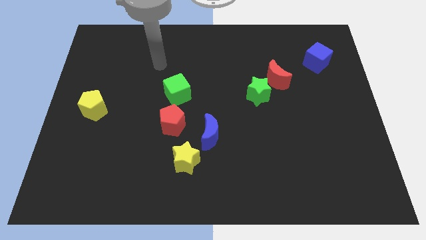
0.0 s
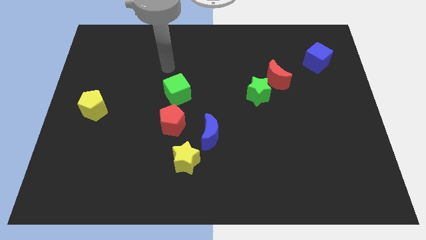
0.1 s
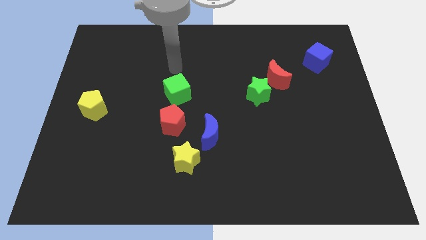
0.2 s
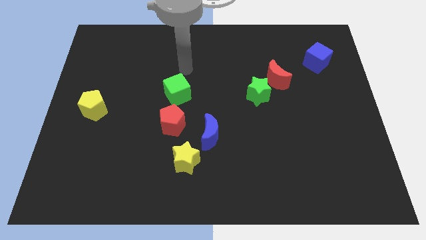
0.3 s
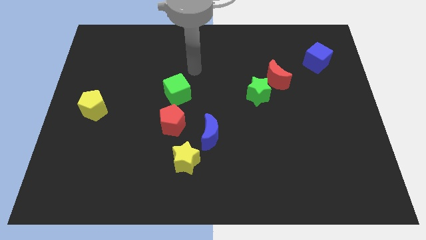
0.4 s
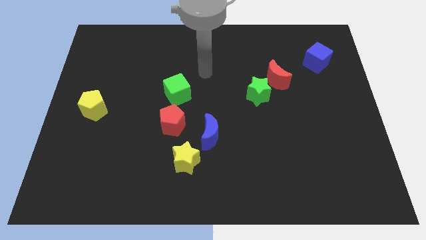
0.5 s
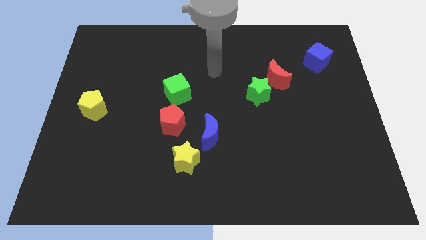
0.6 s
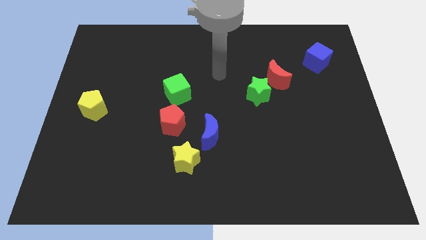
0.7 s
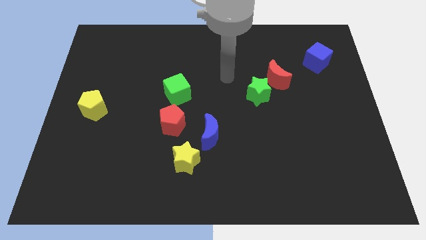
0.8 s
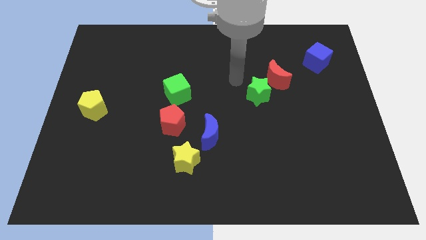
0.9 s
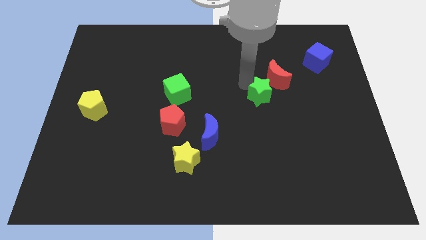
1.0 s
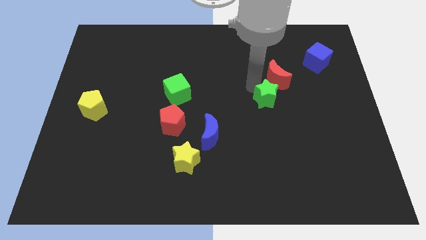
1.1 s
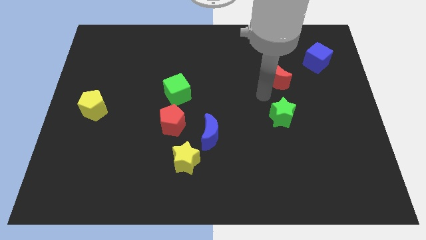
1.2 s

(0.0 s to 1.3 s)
separate the red moon from the green star

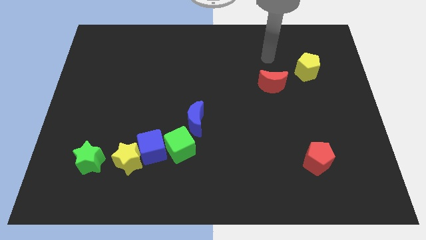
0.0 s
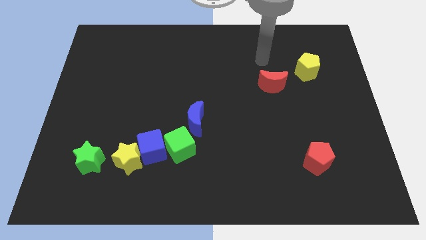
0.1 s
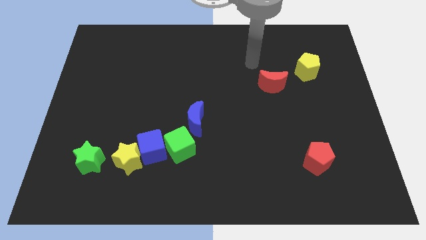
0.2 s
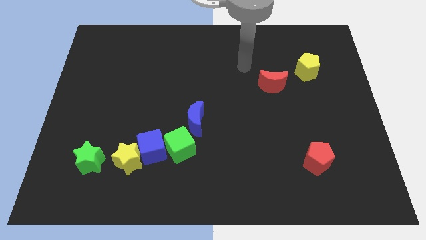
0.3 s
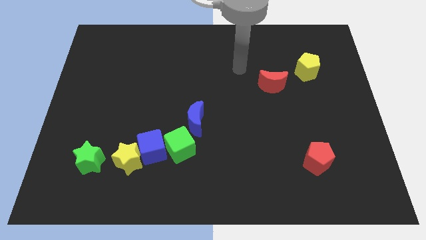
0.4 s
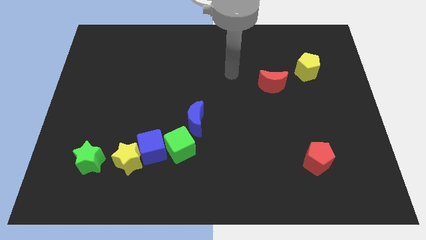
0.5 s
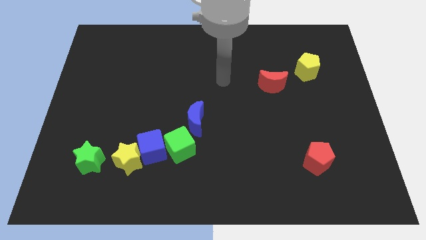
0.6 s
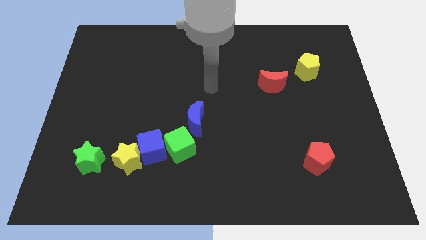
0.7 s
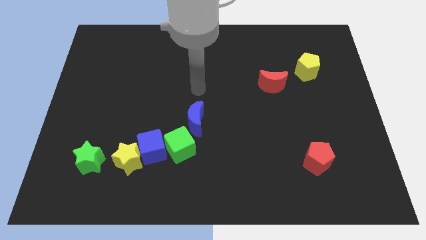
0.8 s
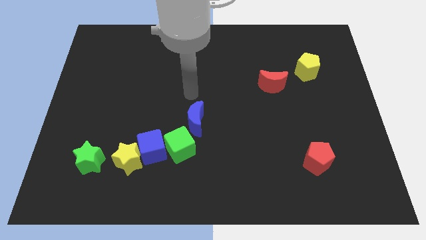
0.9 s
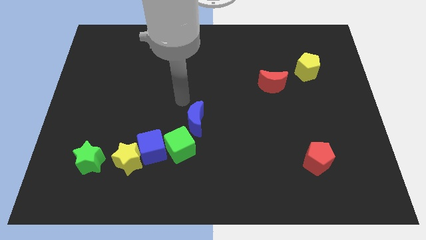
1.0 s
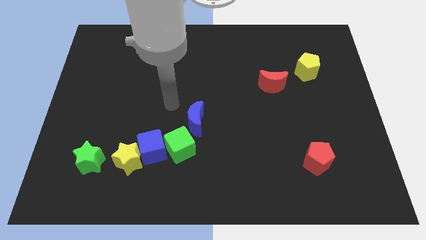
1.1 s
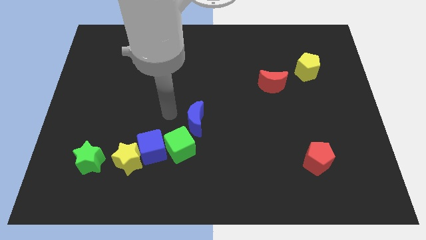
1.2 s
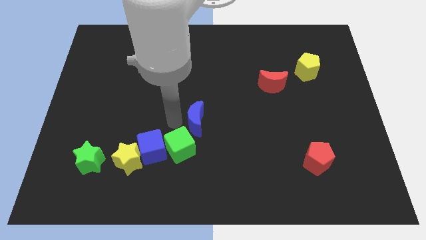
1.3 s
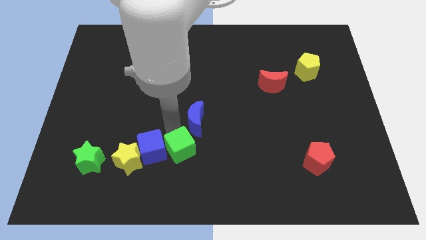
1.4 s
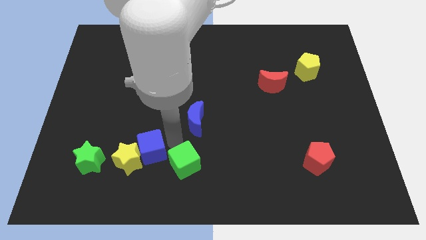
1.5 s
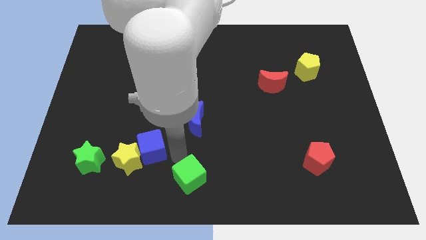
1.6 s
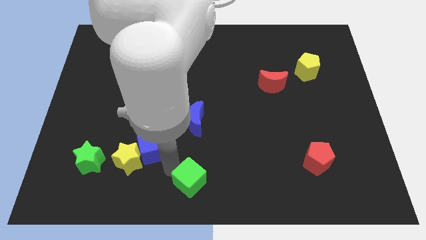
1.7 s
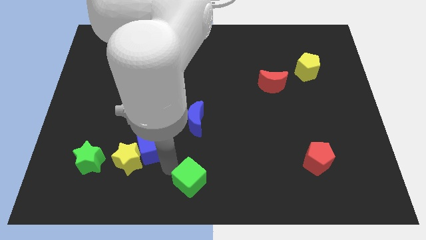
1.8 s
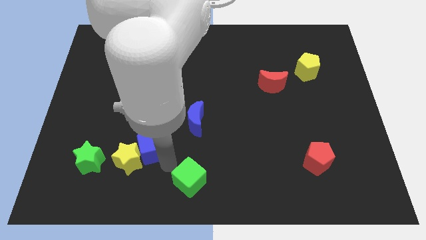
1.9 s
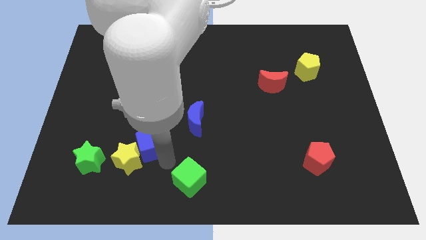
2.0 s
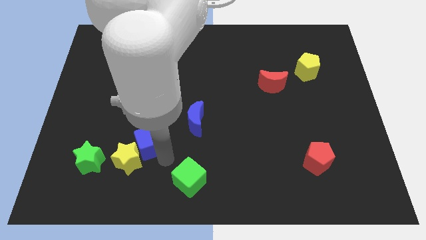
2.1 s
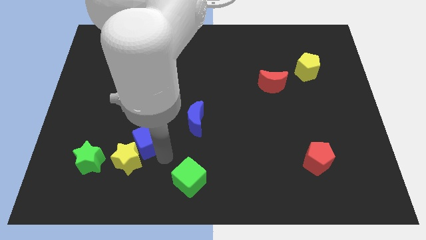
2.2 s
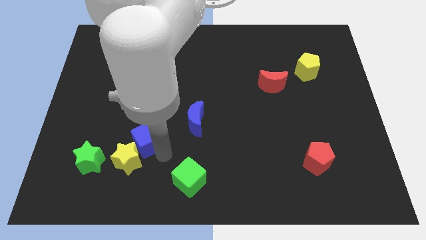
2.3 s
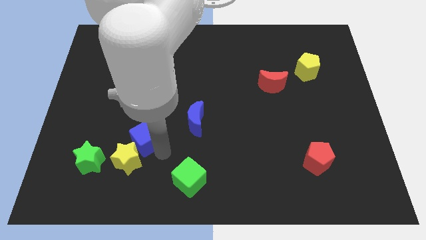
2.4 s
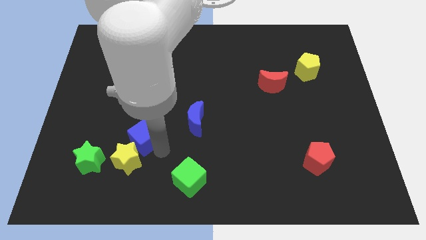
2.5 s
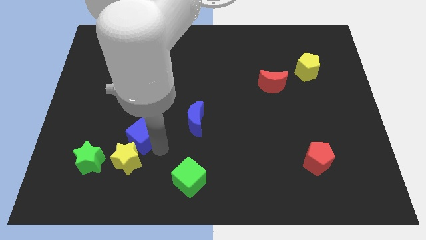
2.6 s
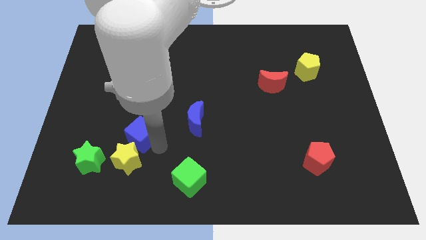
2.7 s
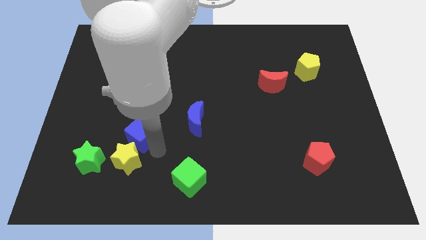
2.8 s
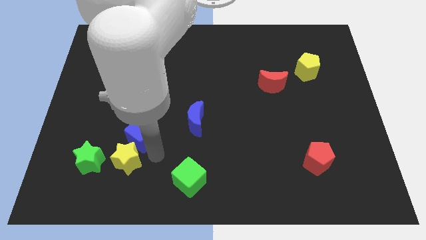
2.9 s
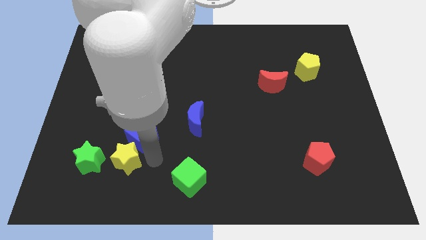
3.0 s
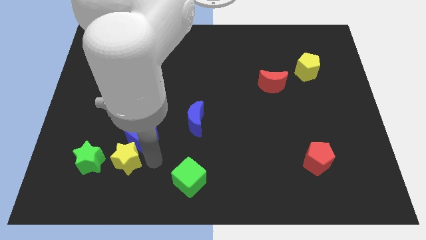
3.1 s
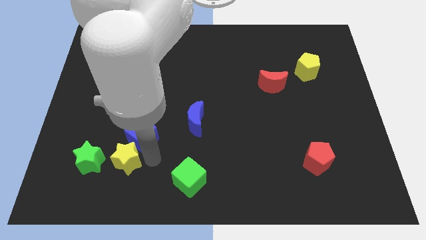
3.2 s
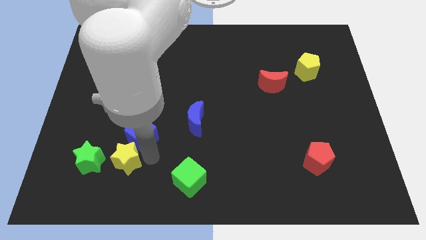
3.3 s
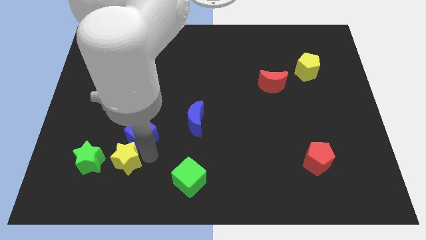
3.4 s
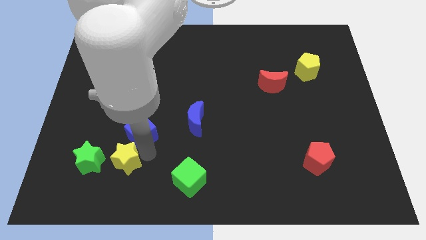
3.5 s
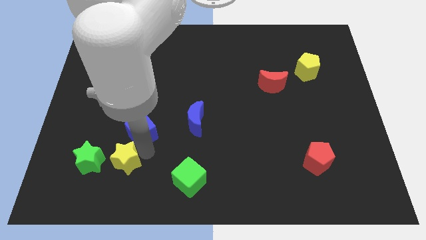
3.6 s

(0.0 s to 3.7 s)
pull the blue cube apart from the yellow star and green cube

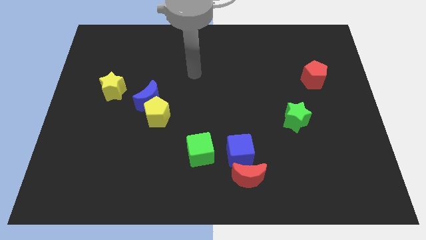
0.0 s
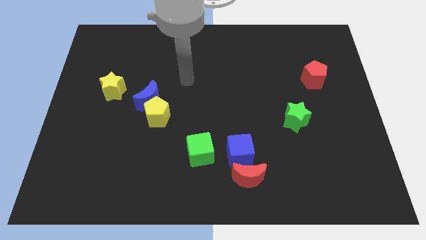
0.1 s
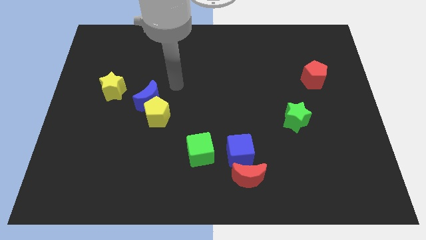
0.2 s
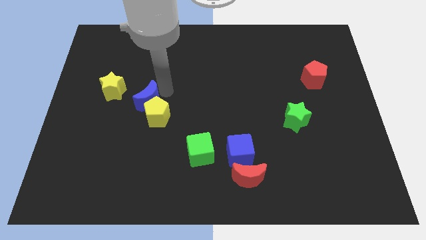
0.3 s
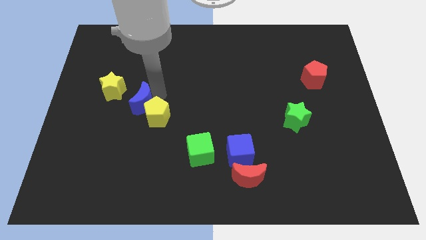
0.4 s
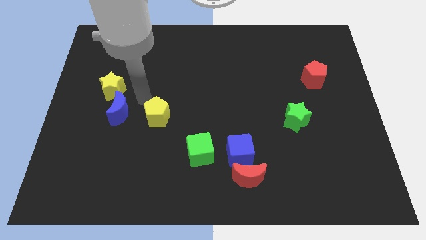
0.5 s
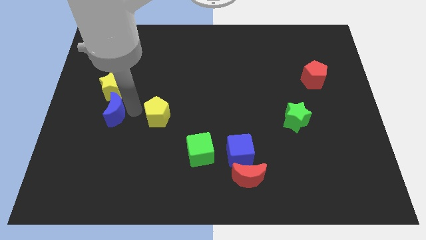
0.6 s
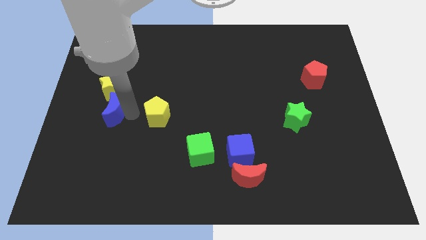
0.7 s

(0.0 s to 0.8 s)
separate the yellow pentagon from the blue moon

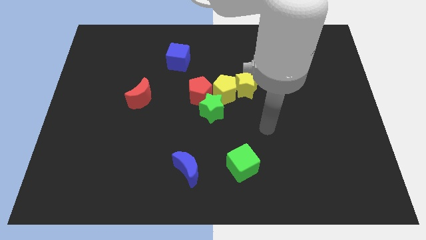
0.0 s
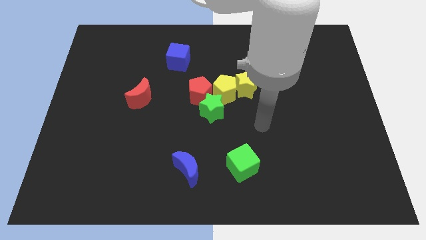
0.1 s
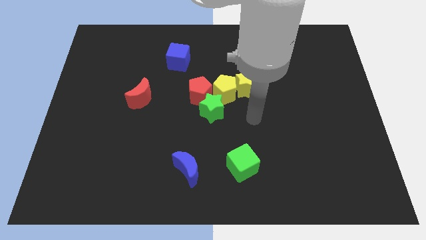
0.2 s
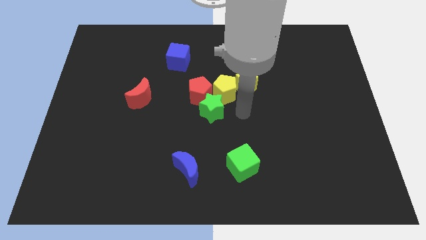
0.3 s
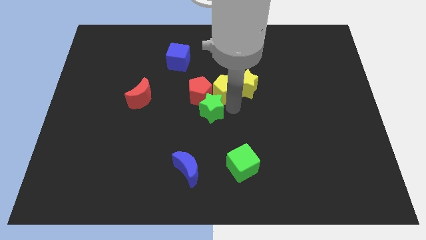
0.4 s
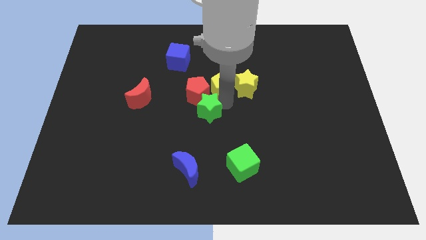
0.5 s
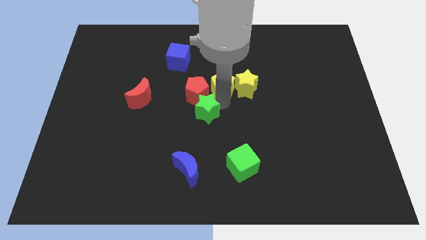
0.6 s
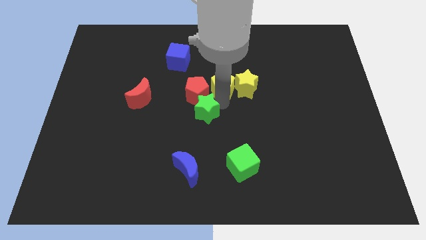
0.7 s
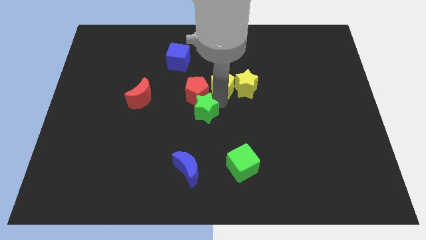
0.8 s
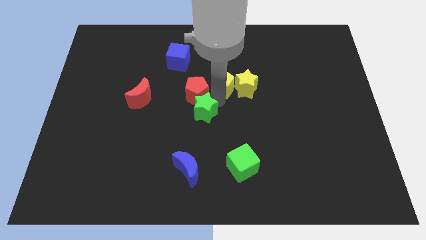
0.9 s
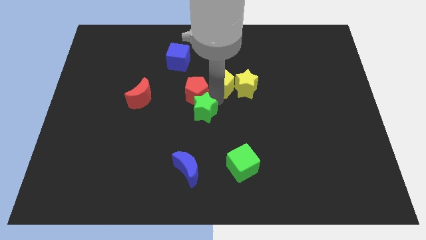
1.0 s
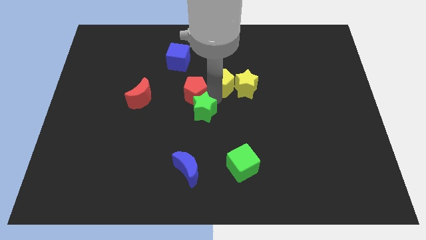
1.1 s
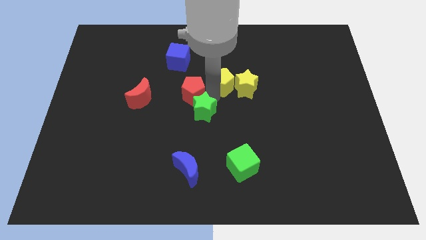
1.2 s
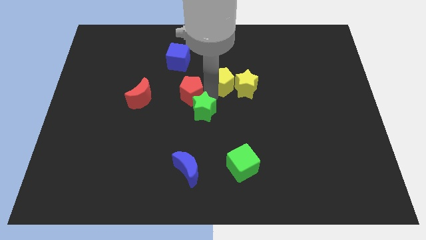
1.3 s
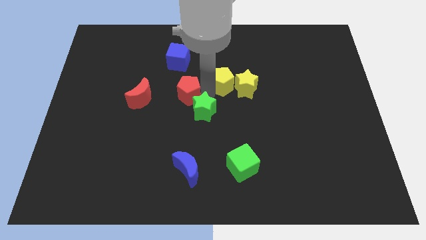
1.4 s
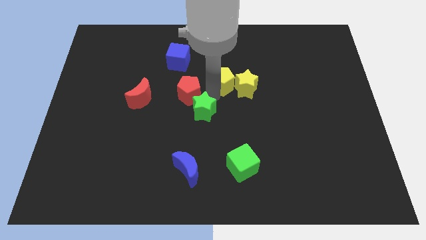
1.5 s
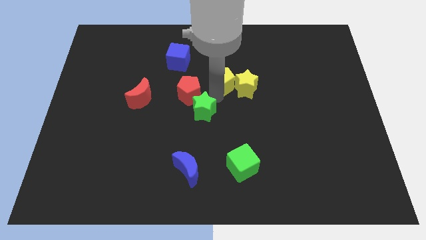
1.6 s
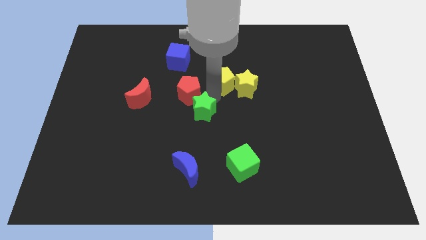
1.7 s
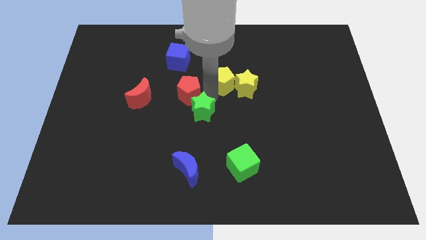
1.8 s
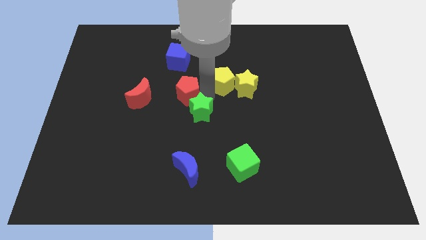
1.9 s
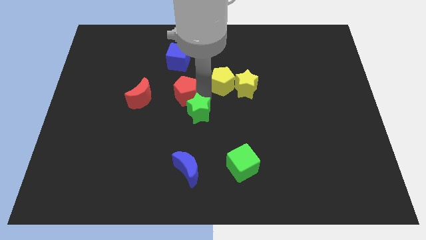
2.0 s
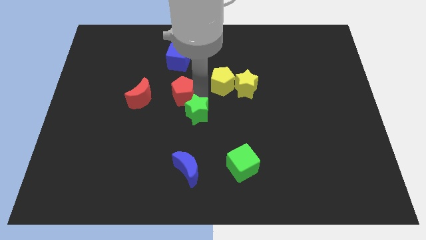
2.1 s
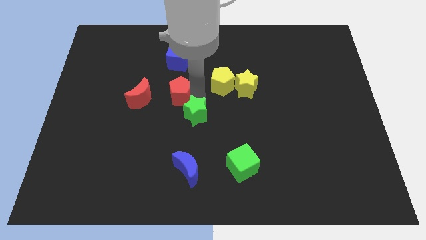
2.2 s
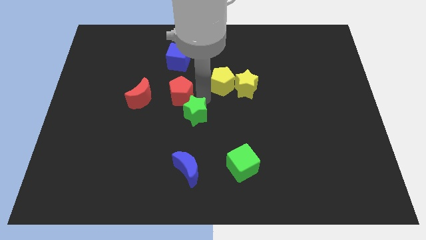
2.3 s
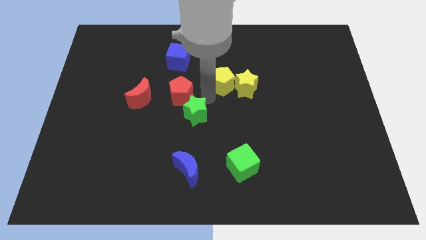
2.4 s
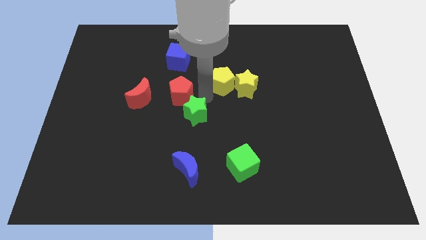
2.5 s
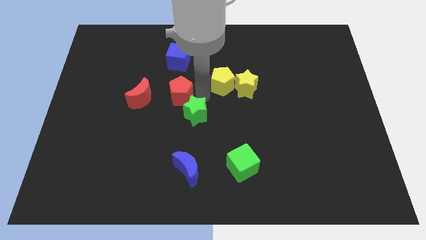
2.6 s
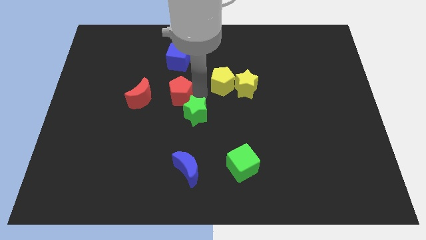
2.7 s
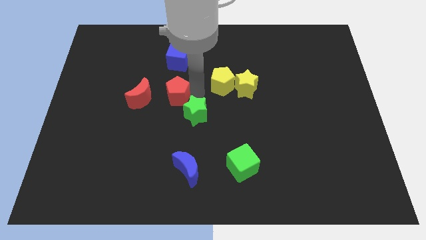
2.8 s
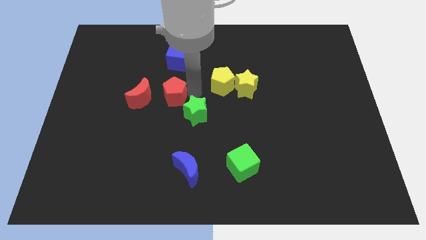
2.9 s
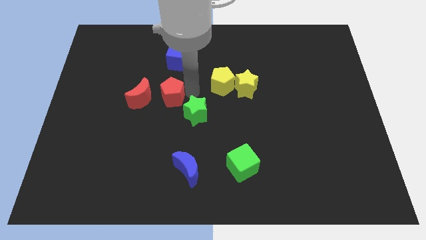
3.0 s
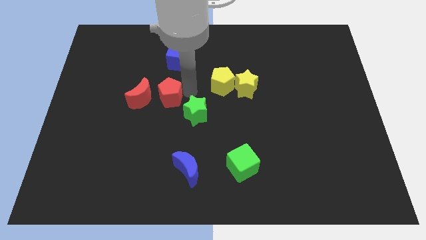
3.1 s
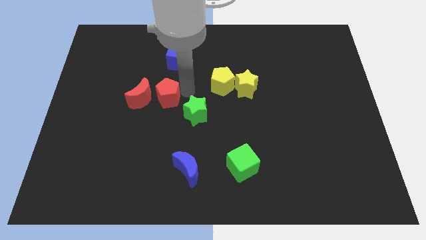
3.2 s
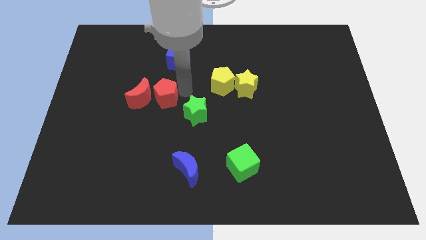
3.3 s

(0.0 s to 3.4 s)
move the red pentagon away from the green star and yellow pentagon

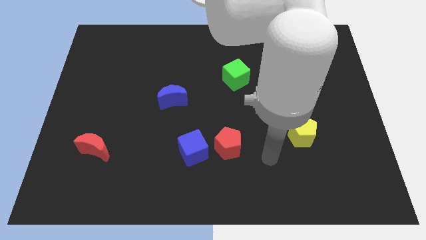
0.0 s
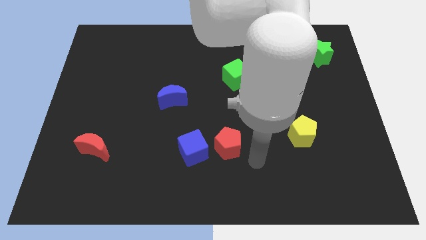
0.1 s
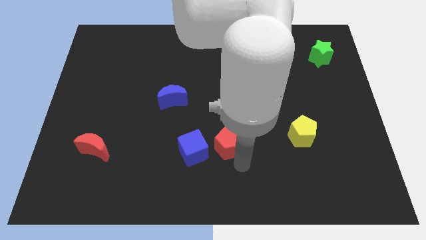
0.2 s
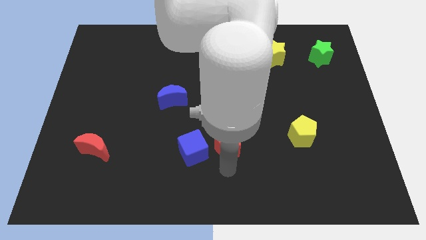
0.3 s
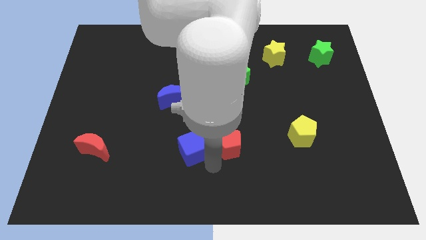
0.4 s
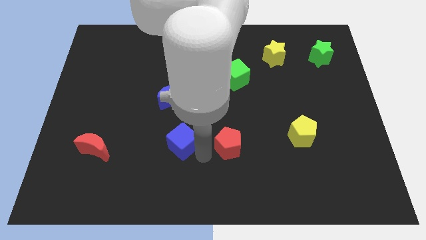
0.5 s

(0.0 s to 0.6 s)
pull the red pentagon apart from the blue cube
